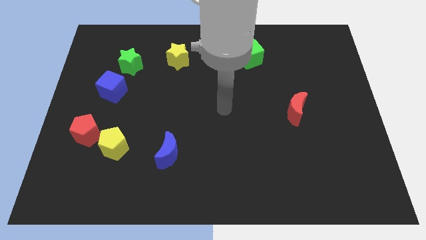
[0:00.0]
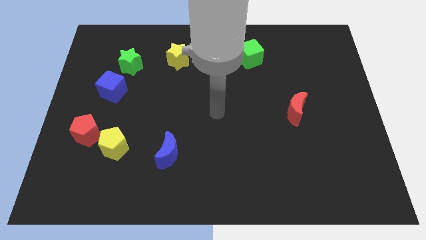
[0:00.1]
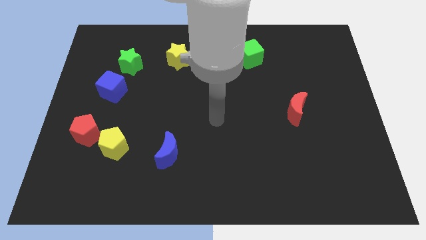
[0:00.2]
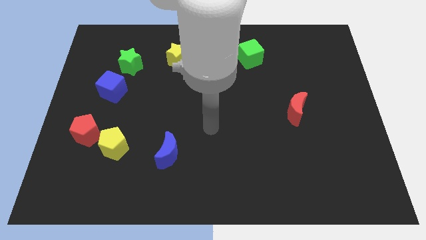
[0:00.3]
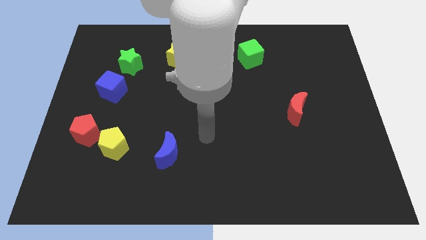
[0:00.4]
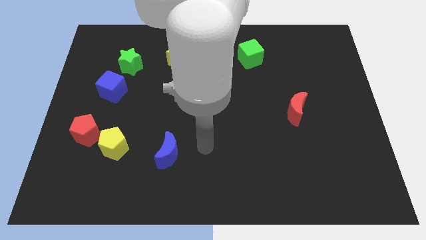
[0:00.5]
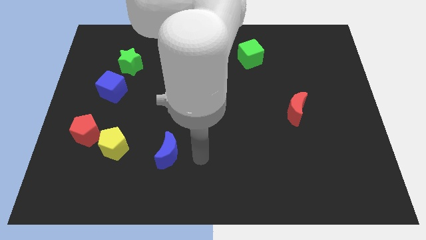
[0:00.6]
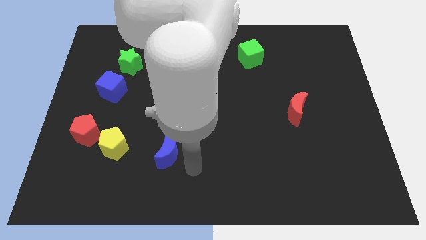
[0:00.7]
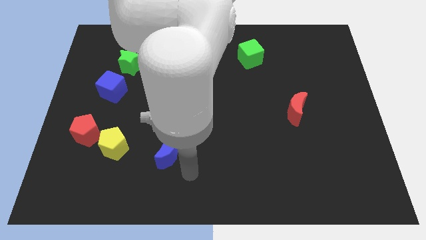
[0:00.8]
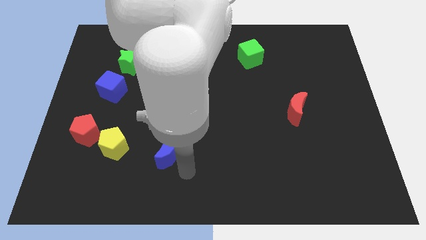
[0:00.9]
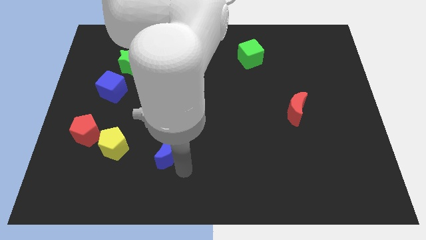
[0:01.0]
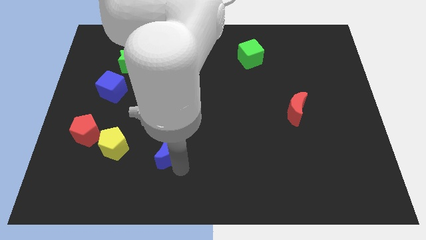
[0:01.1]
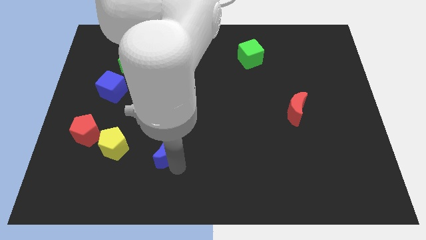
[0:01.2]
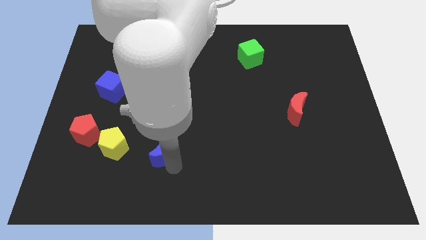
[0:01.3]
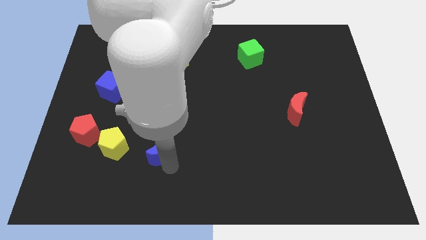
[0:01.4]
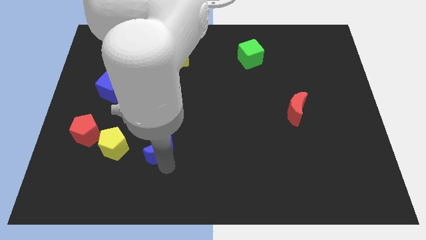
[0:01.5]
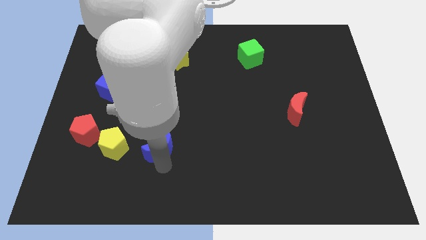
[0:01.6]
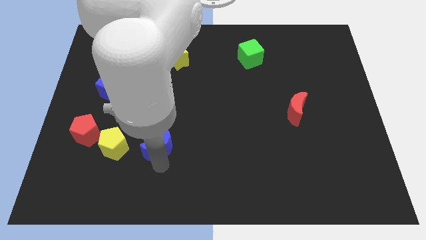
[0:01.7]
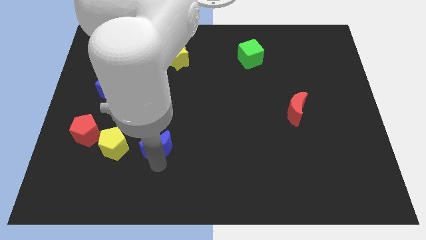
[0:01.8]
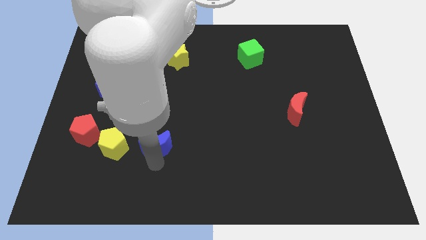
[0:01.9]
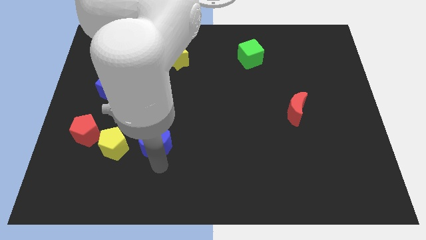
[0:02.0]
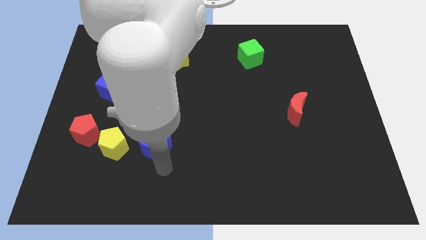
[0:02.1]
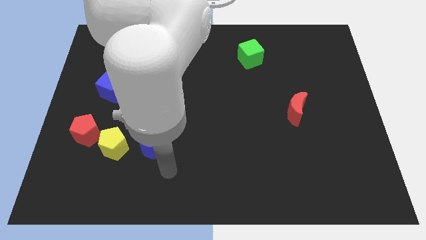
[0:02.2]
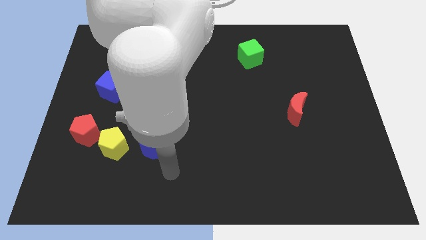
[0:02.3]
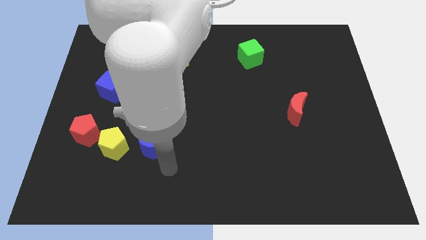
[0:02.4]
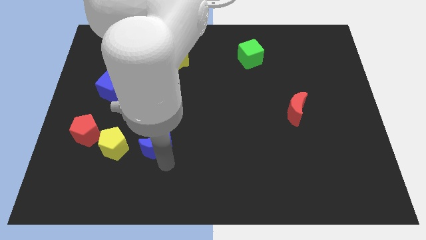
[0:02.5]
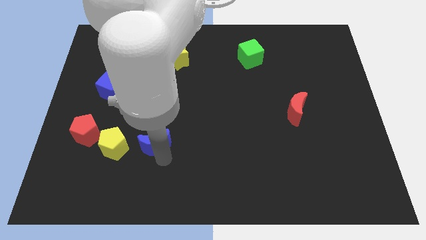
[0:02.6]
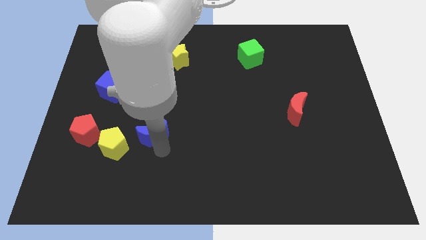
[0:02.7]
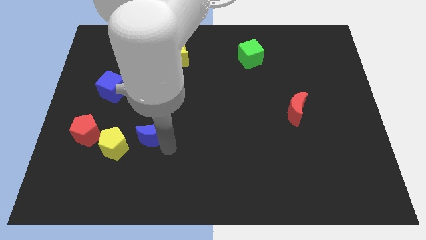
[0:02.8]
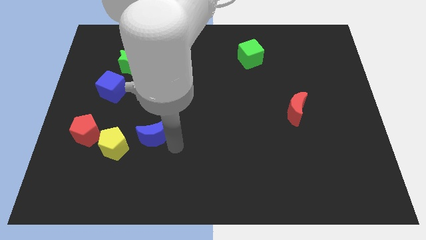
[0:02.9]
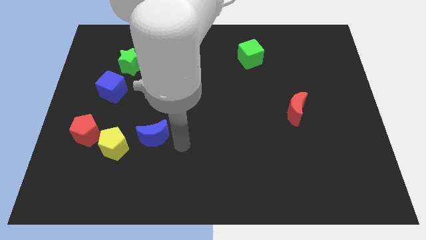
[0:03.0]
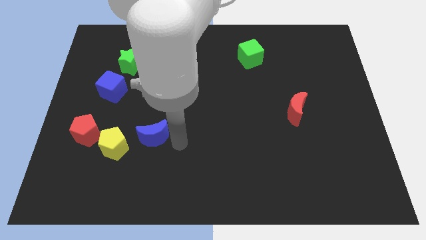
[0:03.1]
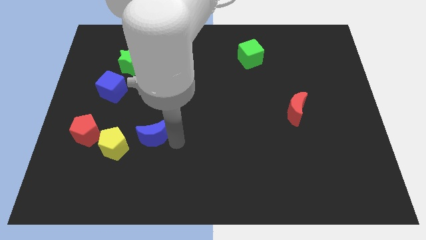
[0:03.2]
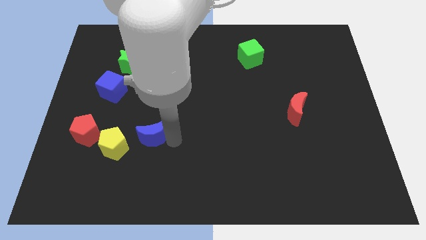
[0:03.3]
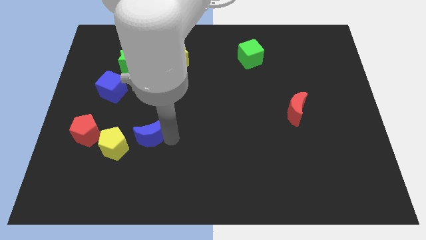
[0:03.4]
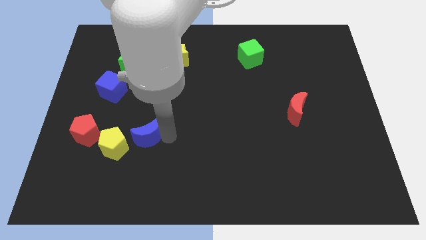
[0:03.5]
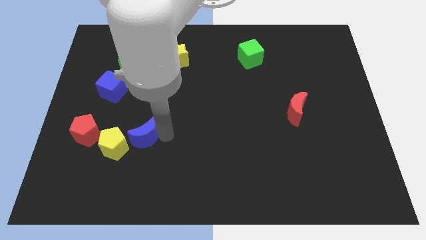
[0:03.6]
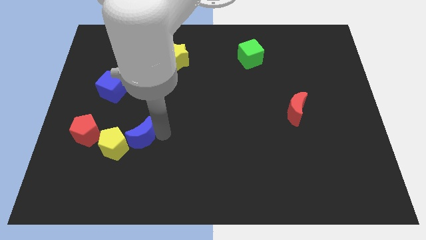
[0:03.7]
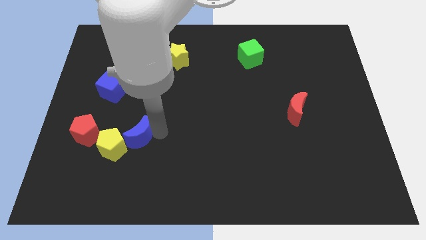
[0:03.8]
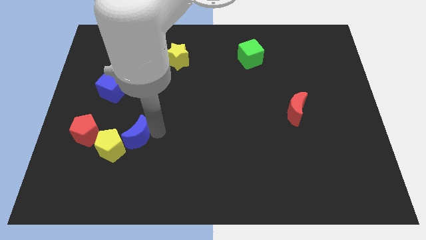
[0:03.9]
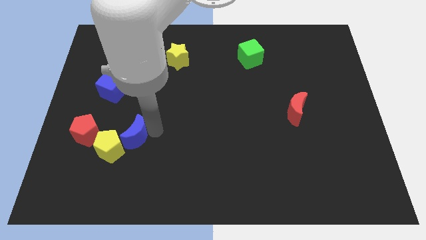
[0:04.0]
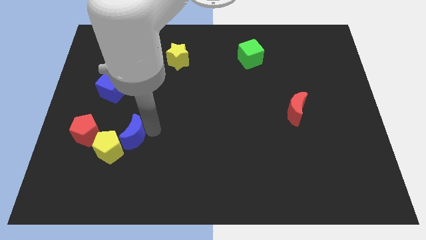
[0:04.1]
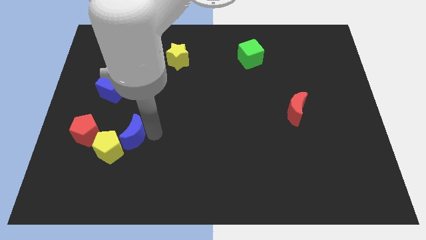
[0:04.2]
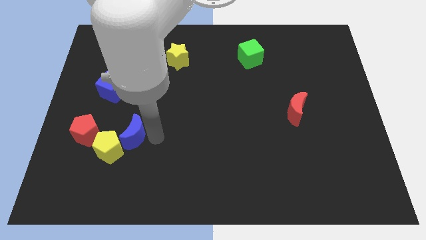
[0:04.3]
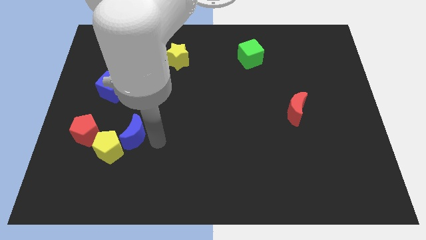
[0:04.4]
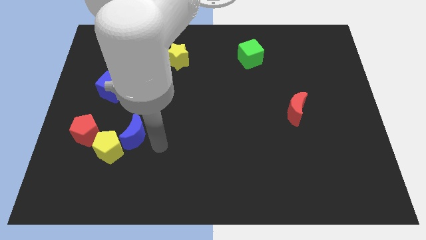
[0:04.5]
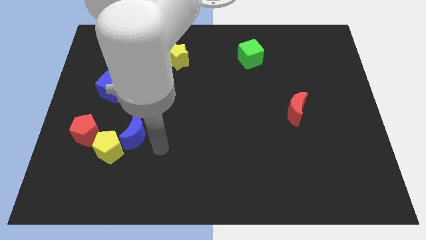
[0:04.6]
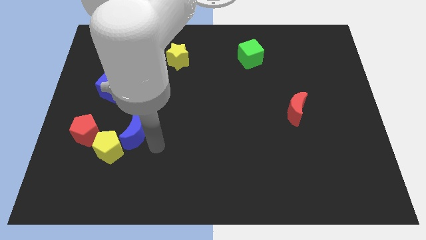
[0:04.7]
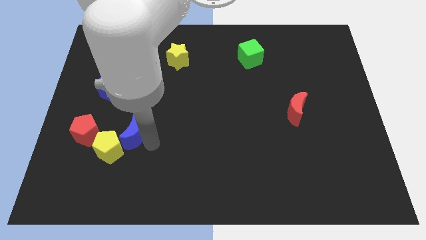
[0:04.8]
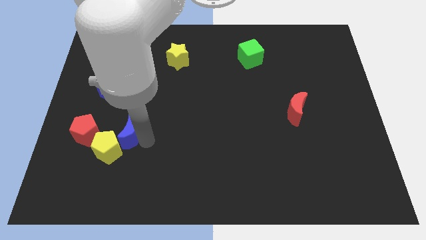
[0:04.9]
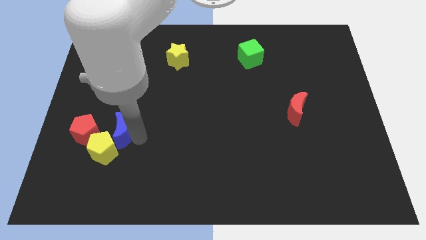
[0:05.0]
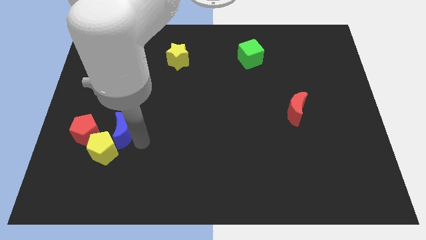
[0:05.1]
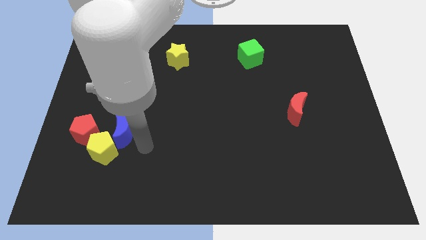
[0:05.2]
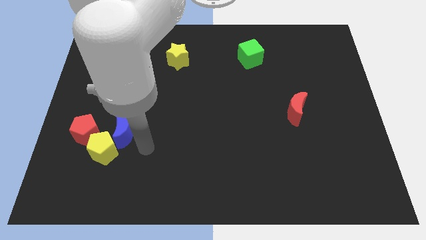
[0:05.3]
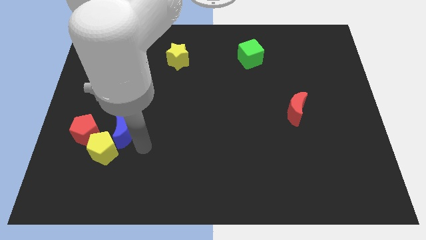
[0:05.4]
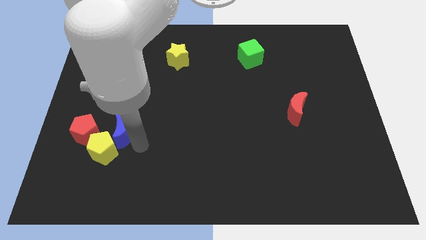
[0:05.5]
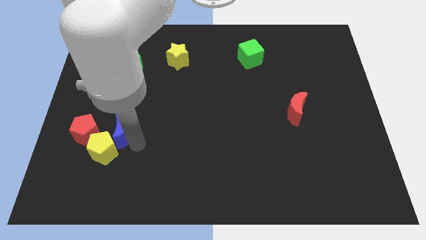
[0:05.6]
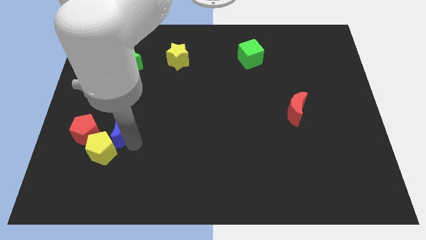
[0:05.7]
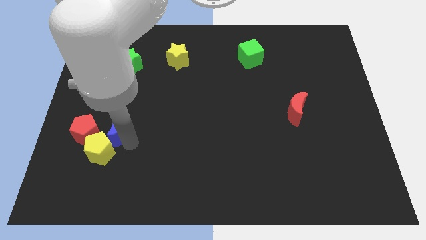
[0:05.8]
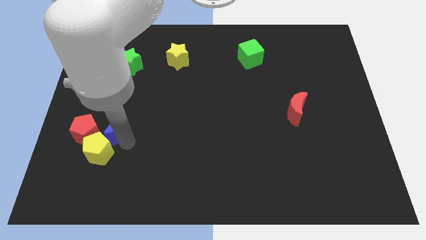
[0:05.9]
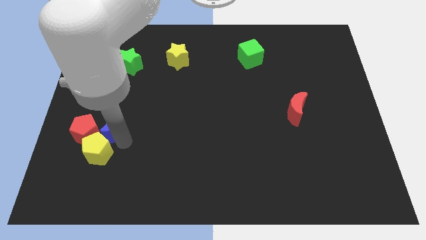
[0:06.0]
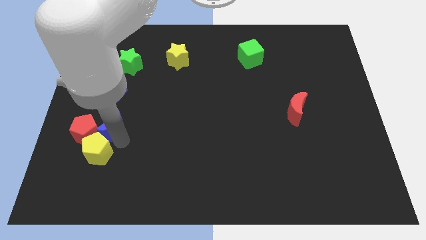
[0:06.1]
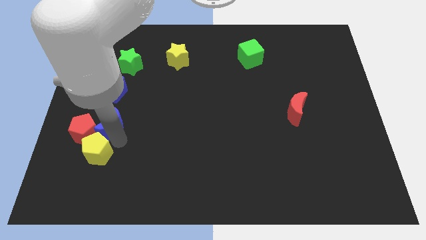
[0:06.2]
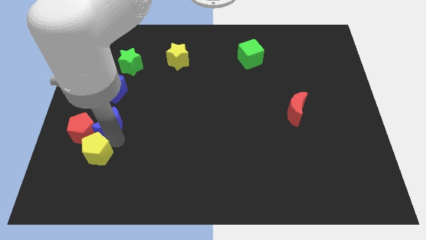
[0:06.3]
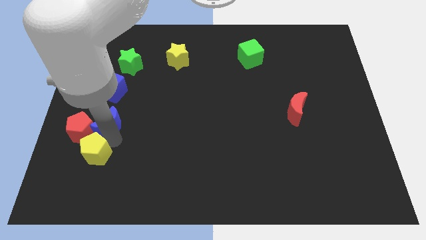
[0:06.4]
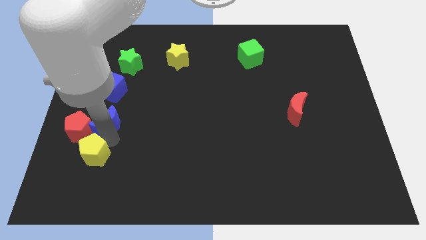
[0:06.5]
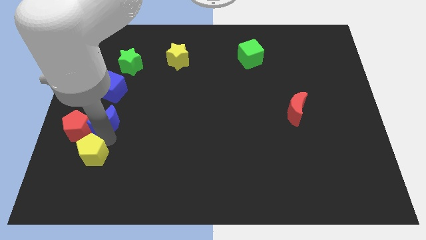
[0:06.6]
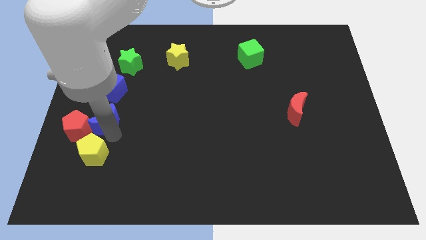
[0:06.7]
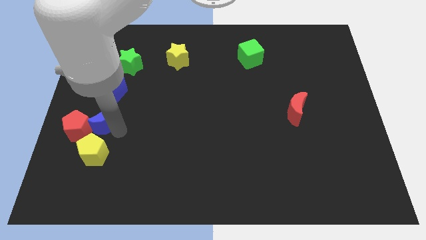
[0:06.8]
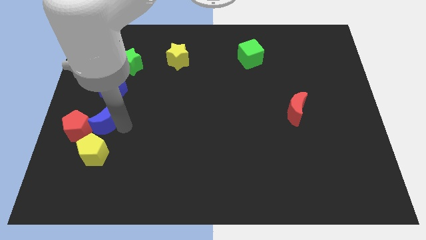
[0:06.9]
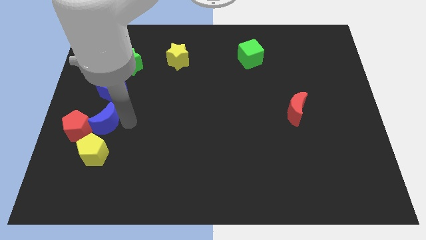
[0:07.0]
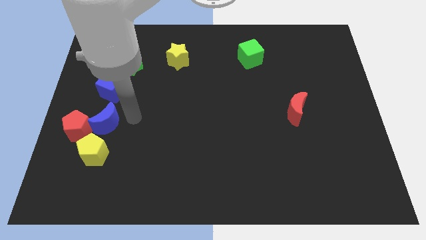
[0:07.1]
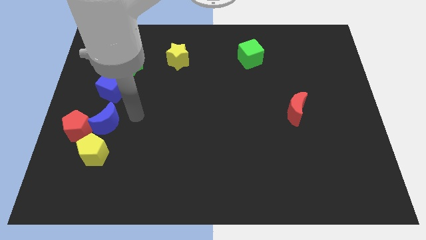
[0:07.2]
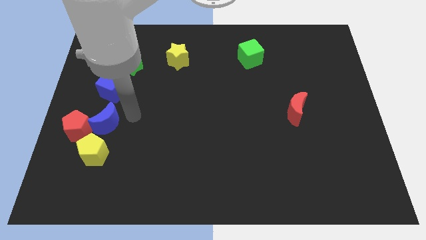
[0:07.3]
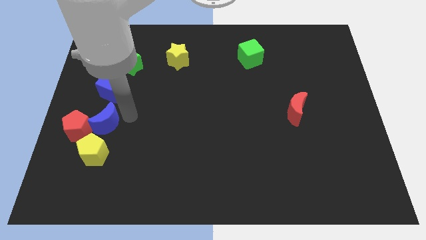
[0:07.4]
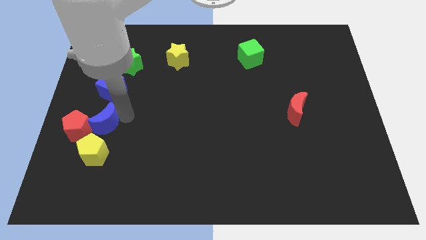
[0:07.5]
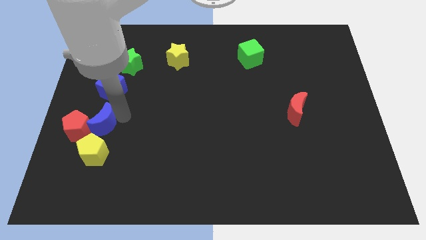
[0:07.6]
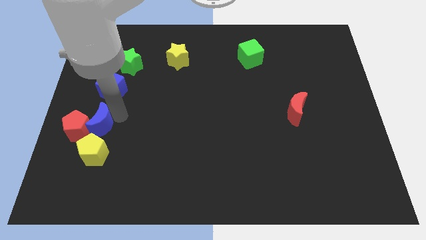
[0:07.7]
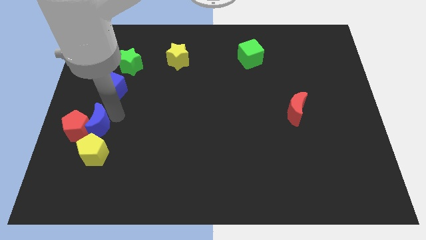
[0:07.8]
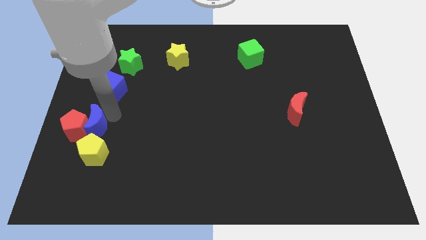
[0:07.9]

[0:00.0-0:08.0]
put the blue moon to the top left of the yellow pentagon
